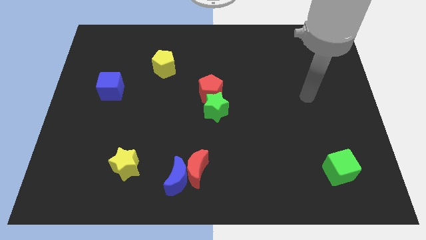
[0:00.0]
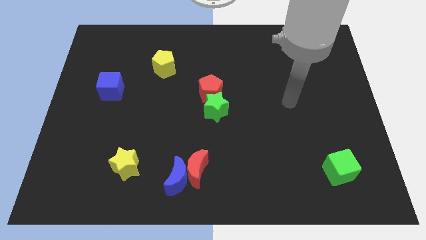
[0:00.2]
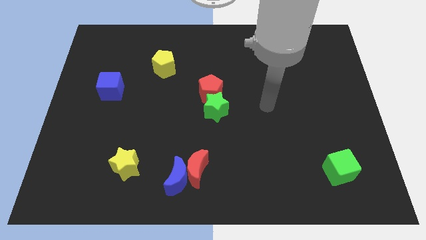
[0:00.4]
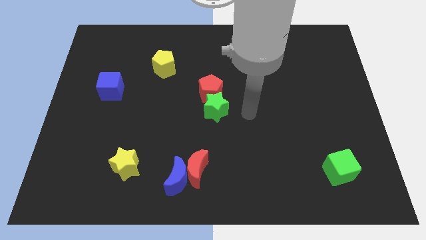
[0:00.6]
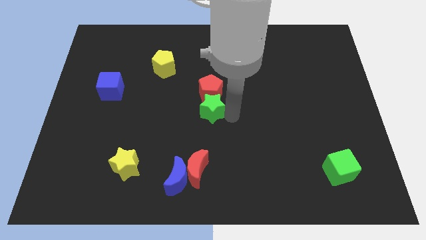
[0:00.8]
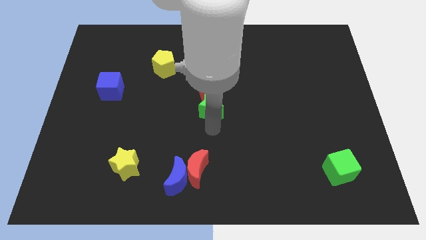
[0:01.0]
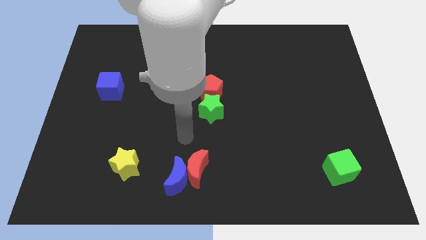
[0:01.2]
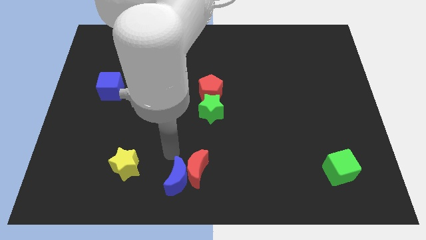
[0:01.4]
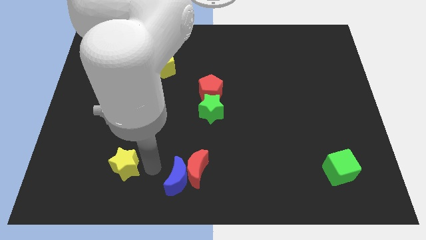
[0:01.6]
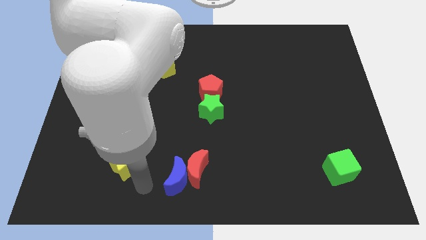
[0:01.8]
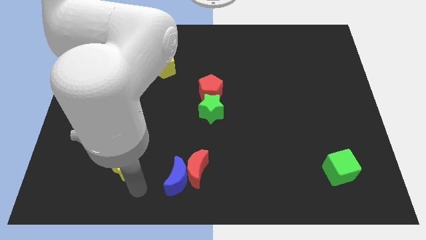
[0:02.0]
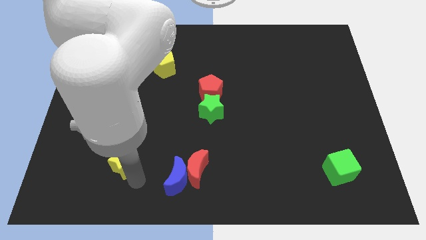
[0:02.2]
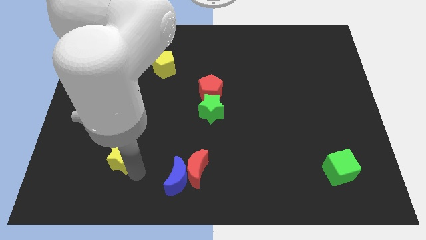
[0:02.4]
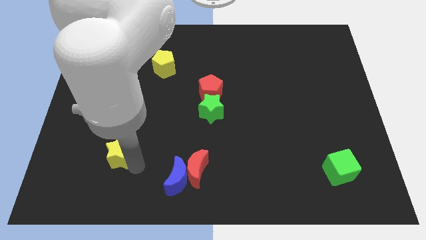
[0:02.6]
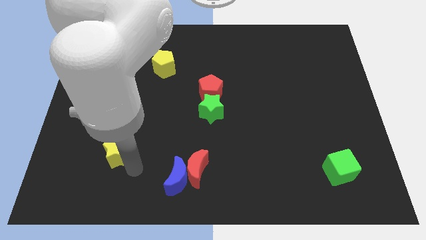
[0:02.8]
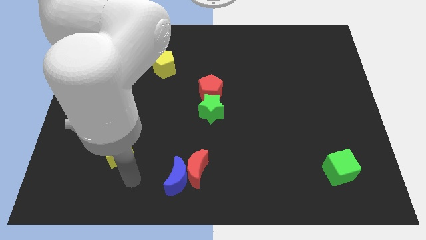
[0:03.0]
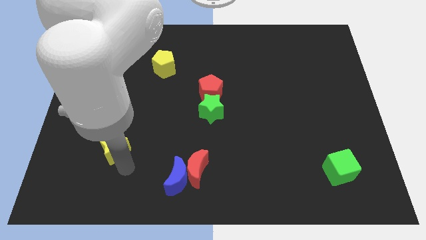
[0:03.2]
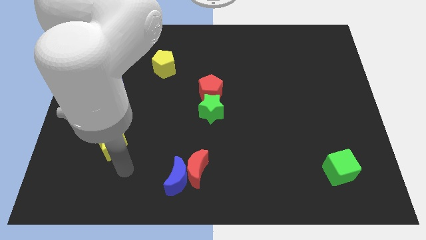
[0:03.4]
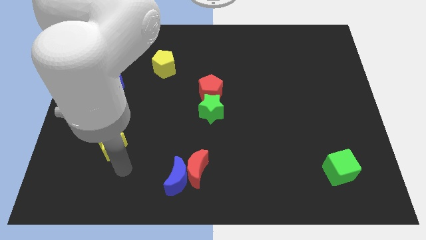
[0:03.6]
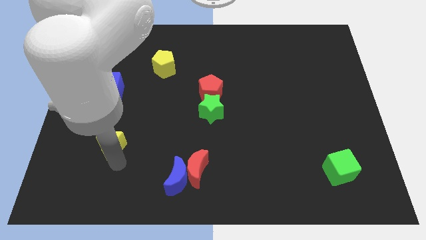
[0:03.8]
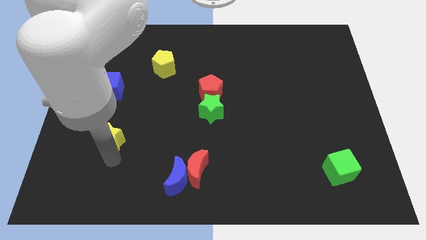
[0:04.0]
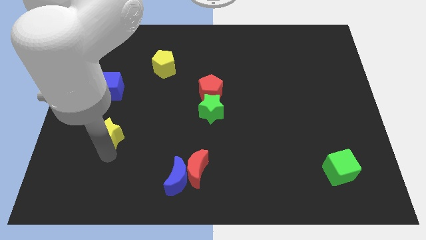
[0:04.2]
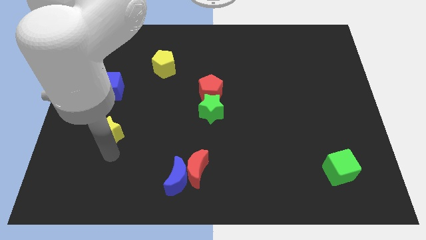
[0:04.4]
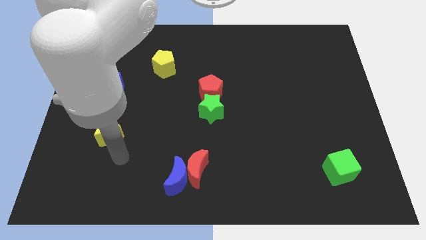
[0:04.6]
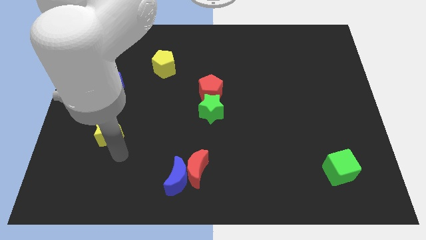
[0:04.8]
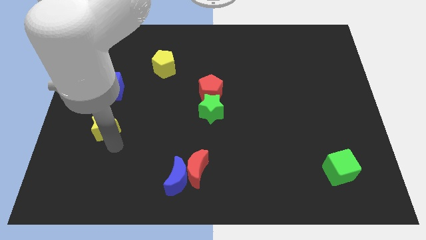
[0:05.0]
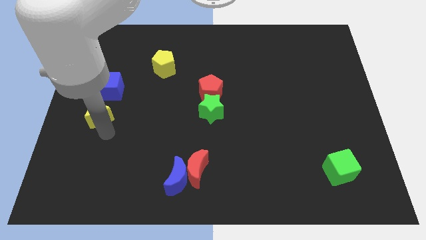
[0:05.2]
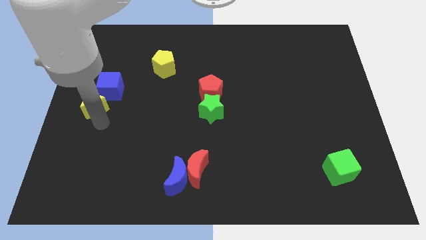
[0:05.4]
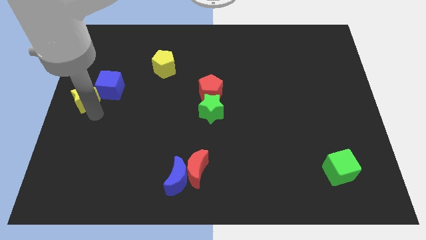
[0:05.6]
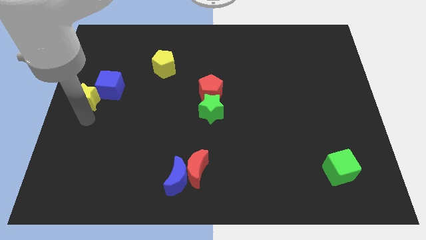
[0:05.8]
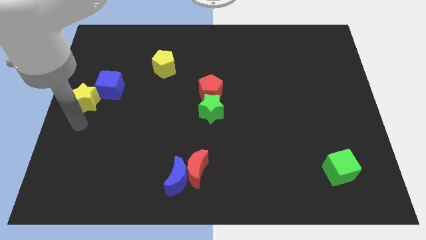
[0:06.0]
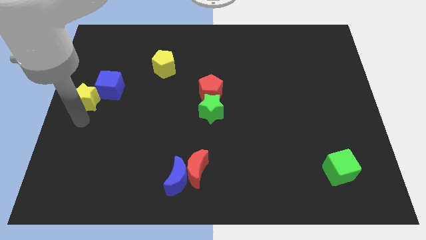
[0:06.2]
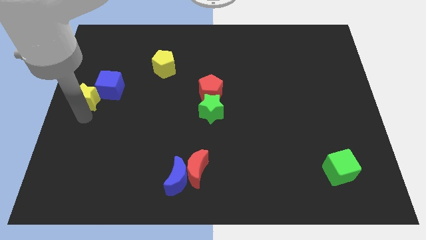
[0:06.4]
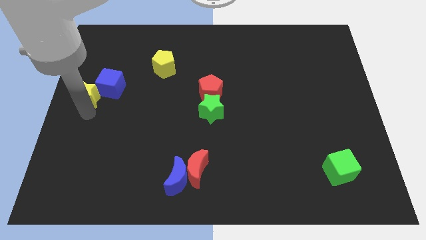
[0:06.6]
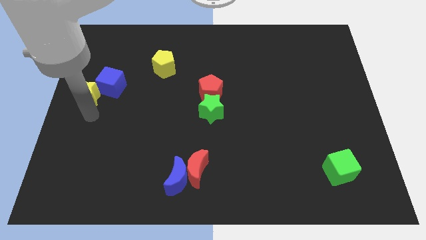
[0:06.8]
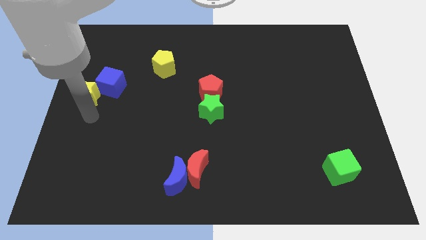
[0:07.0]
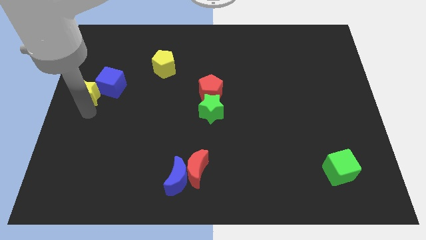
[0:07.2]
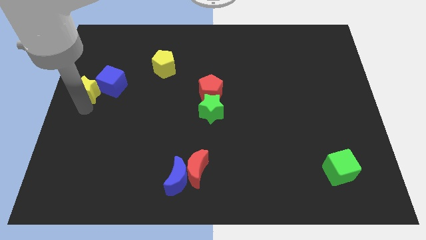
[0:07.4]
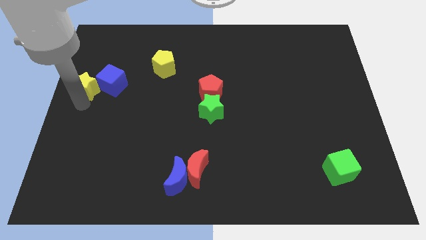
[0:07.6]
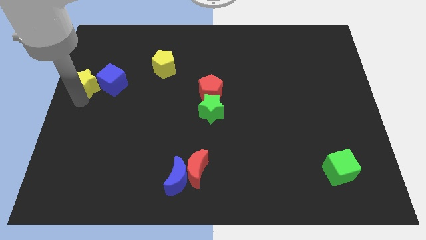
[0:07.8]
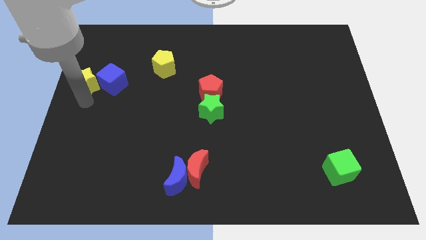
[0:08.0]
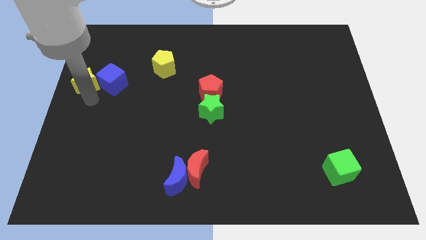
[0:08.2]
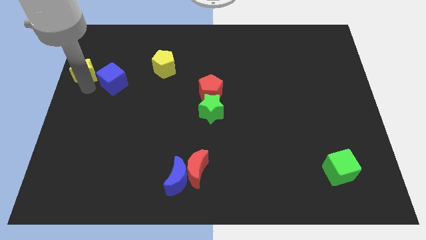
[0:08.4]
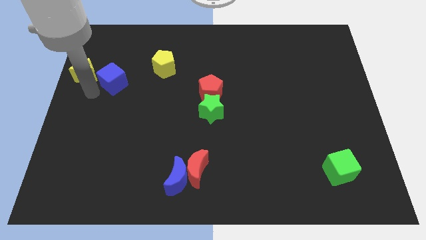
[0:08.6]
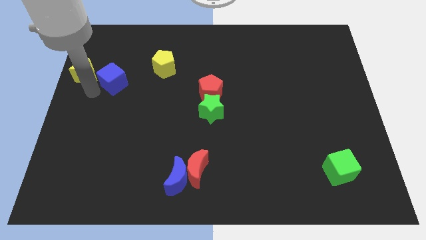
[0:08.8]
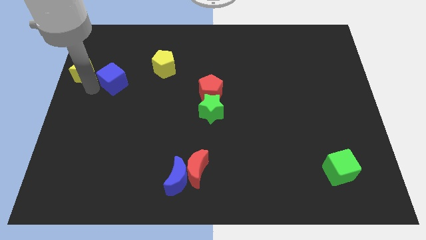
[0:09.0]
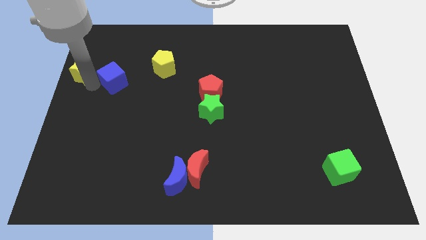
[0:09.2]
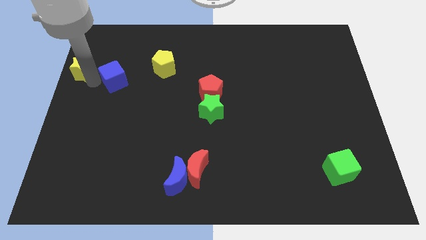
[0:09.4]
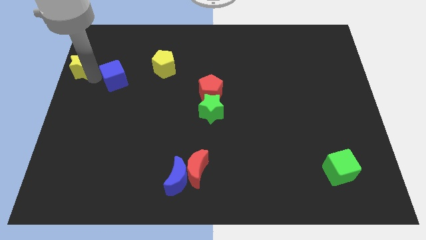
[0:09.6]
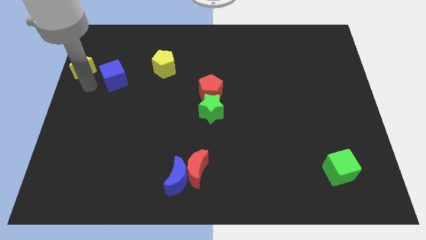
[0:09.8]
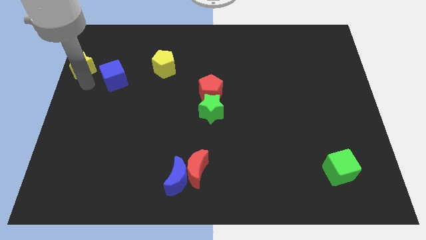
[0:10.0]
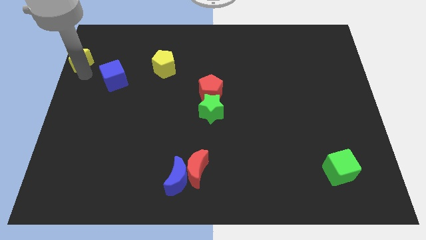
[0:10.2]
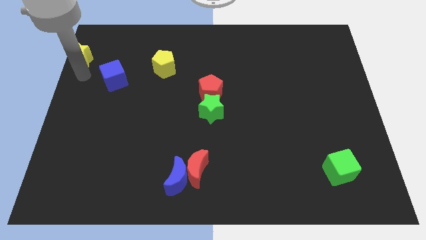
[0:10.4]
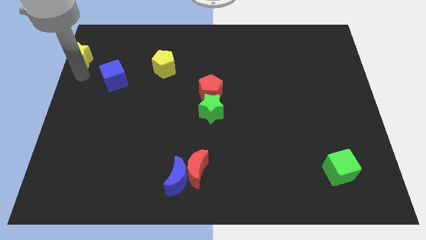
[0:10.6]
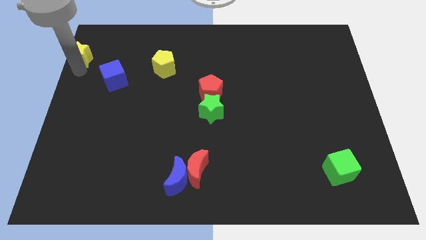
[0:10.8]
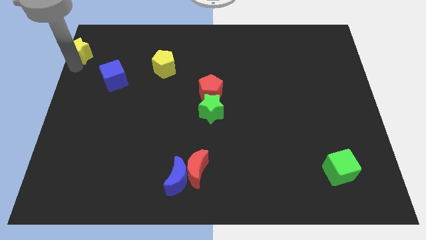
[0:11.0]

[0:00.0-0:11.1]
push the yellow star to the upper left corner

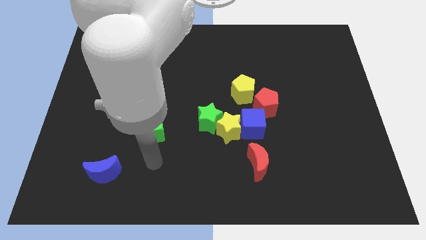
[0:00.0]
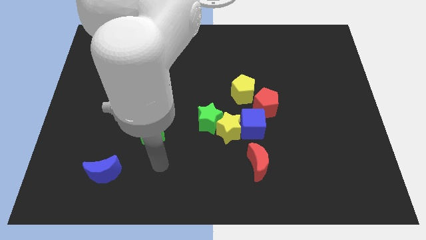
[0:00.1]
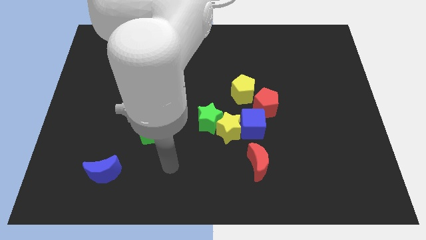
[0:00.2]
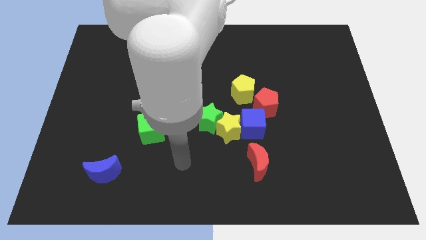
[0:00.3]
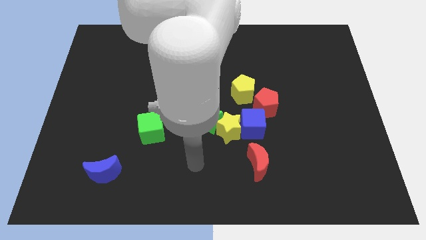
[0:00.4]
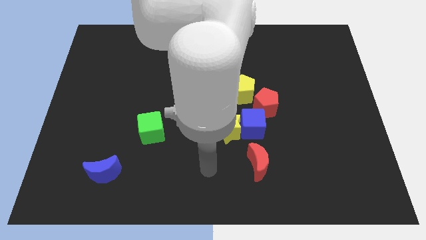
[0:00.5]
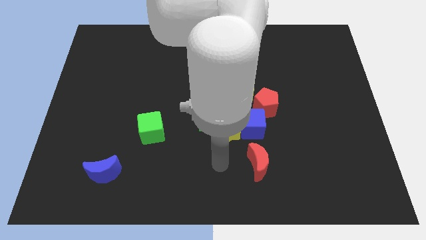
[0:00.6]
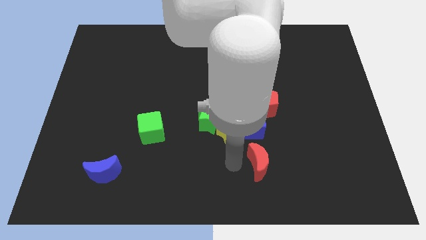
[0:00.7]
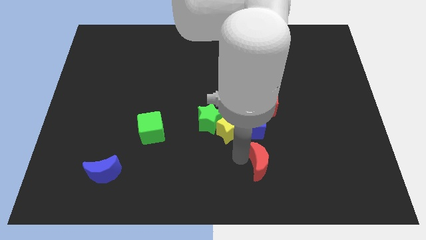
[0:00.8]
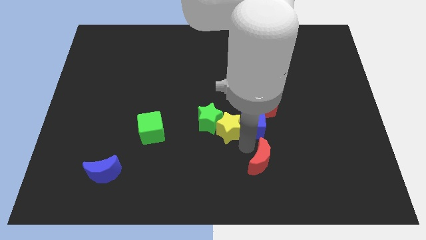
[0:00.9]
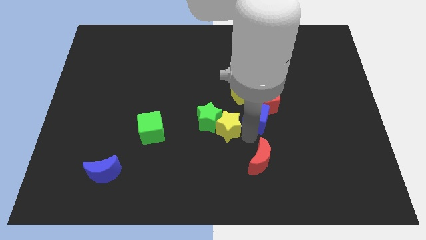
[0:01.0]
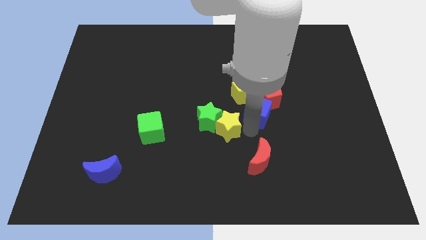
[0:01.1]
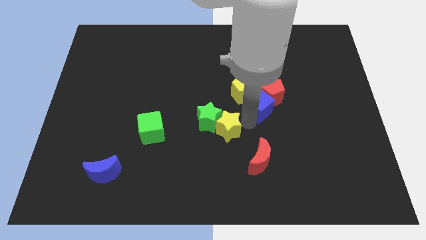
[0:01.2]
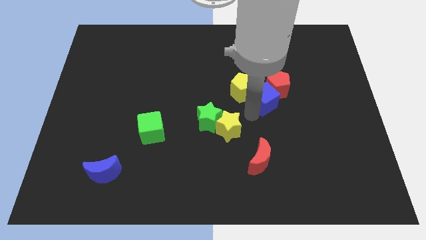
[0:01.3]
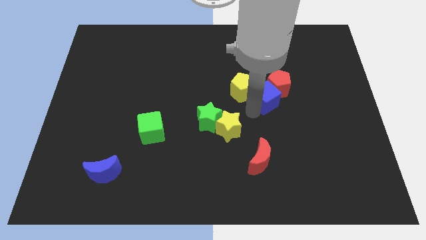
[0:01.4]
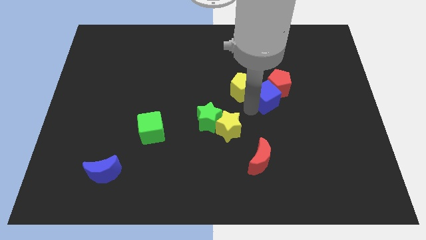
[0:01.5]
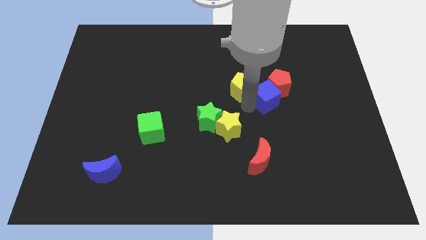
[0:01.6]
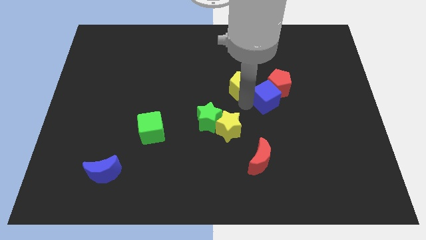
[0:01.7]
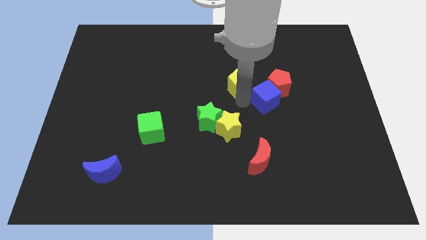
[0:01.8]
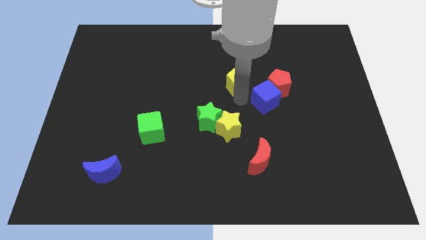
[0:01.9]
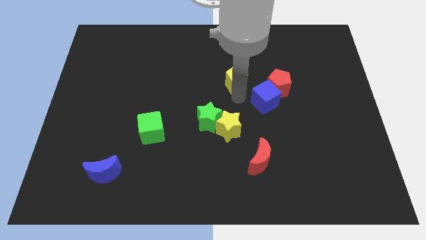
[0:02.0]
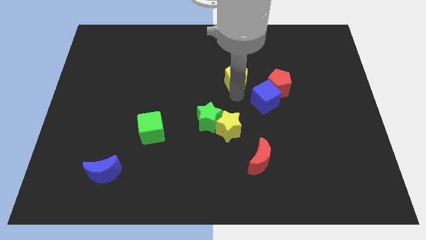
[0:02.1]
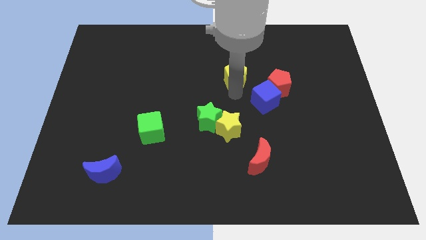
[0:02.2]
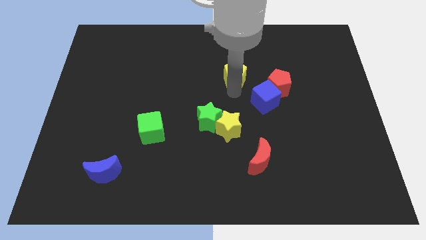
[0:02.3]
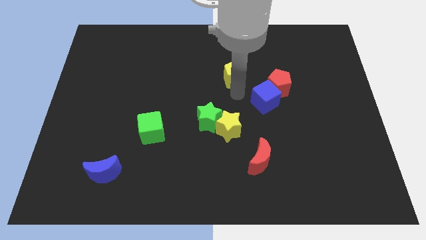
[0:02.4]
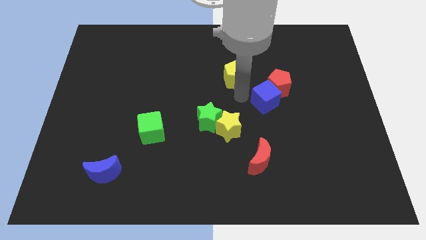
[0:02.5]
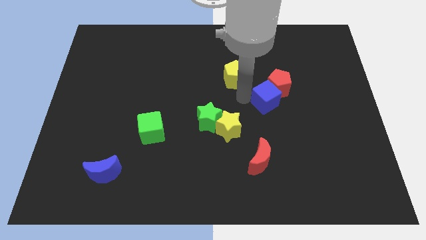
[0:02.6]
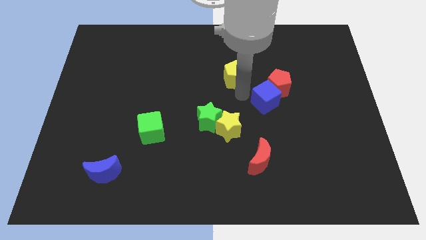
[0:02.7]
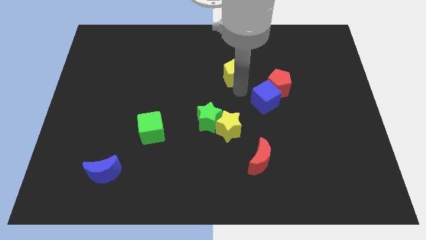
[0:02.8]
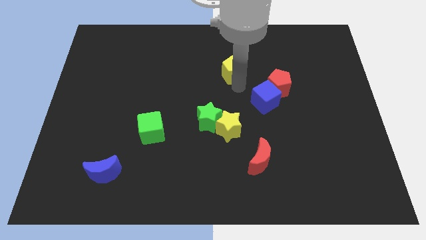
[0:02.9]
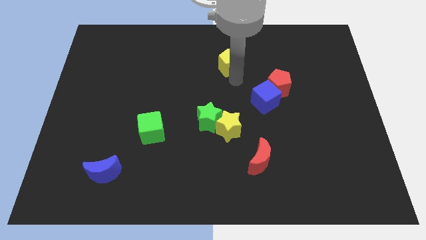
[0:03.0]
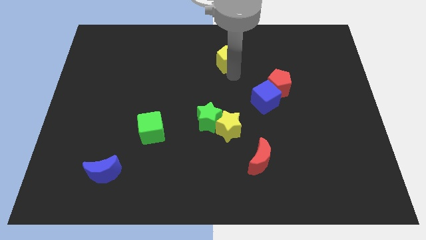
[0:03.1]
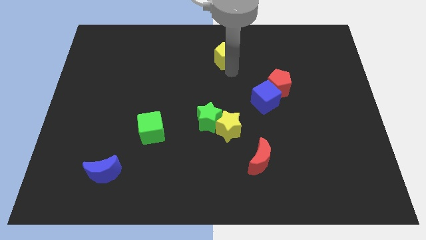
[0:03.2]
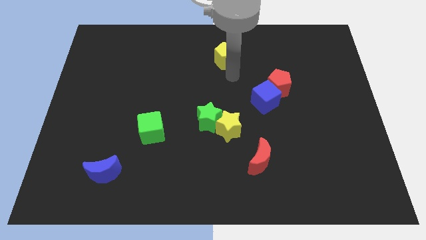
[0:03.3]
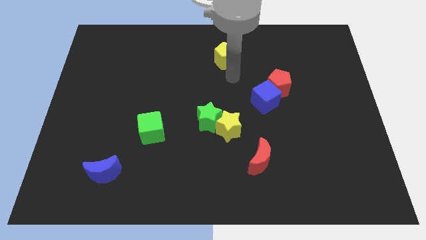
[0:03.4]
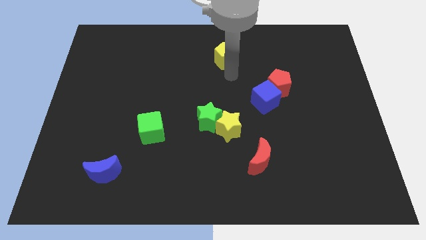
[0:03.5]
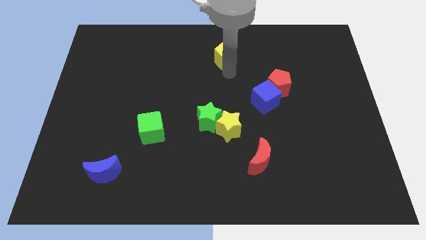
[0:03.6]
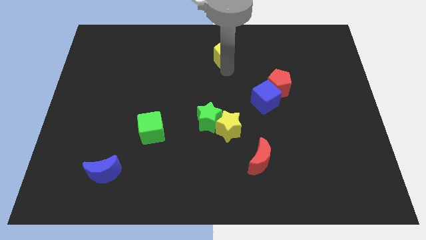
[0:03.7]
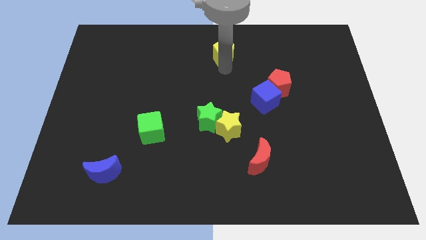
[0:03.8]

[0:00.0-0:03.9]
push the yellow pentagon to the top side
